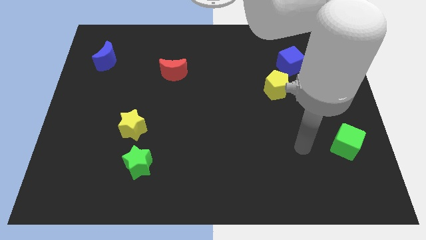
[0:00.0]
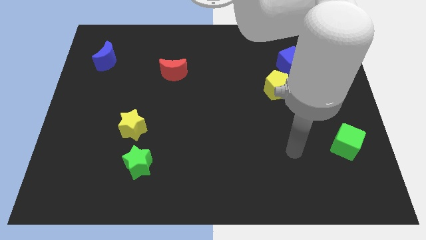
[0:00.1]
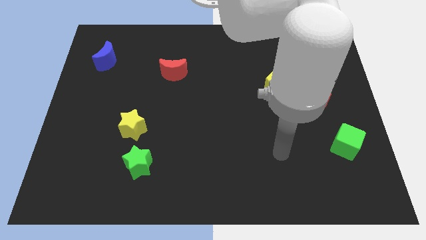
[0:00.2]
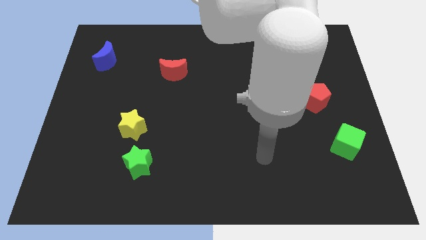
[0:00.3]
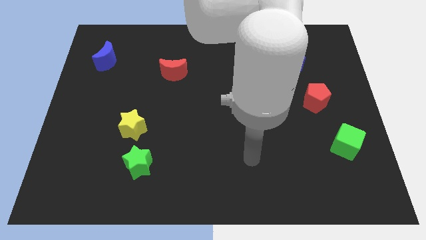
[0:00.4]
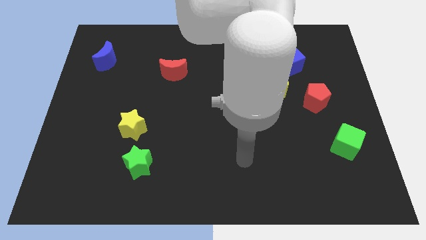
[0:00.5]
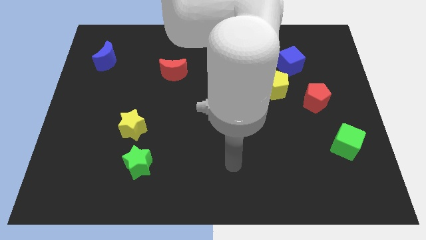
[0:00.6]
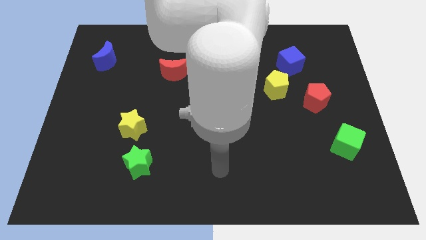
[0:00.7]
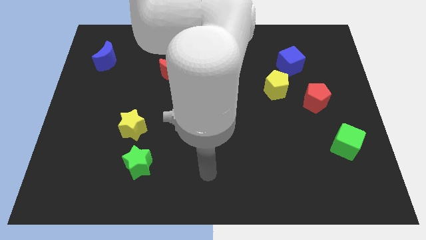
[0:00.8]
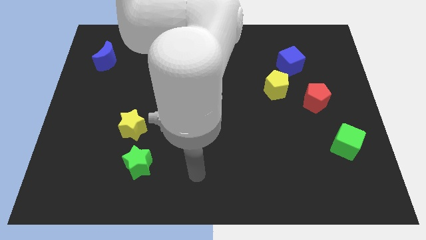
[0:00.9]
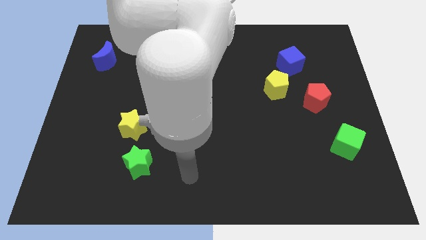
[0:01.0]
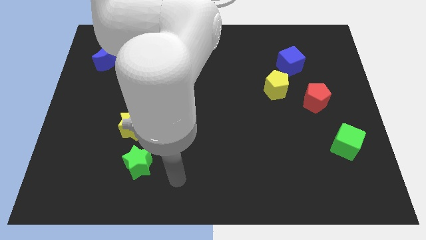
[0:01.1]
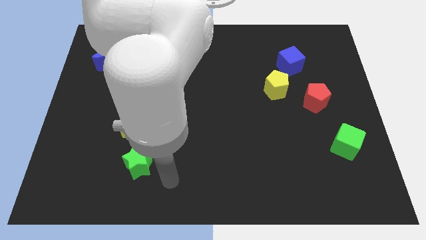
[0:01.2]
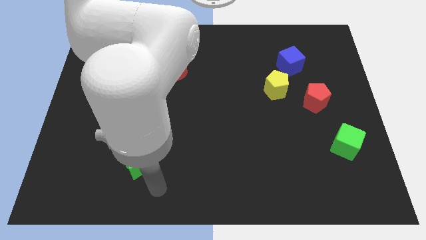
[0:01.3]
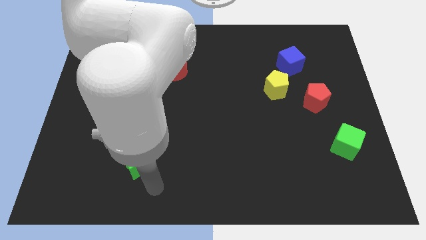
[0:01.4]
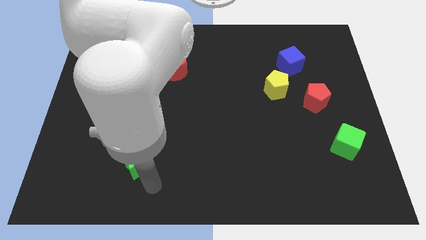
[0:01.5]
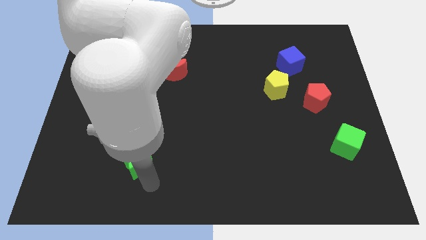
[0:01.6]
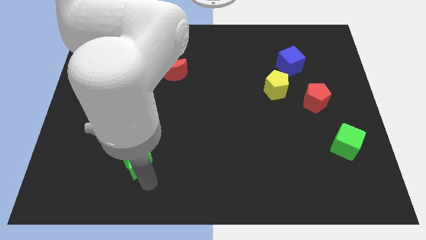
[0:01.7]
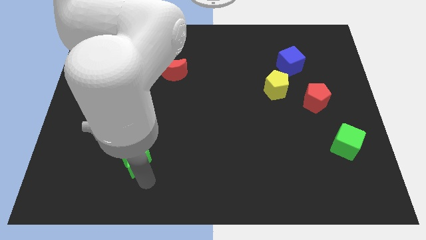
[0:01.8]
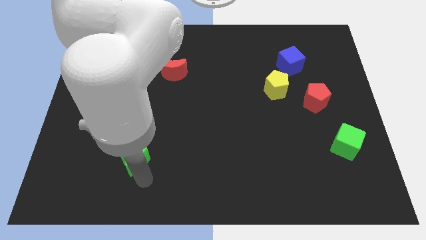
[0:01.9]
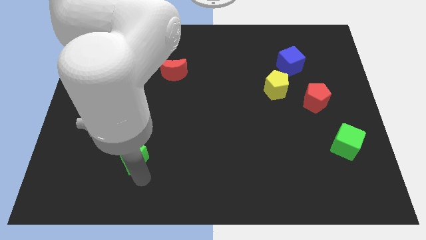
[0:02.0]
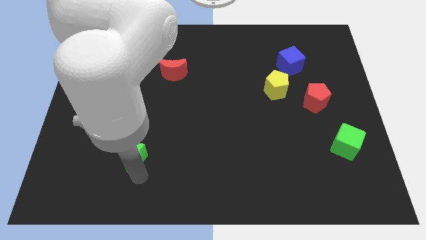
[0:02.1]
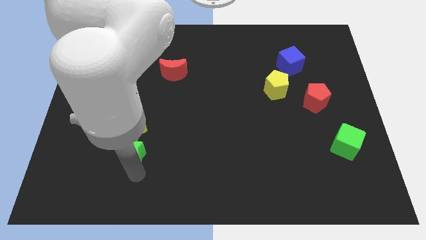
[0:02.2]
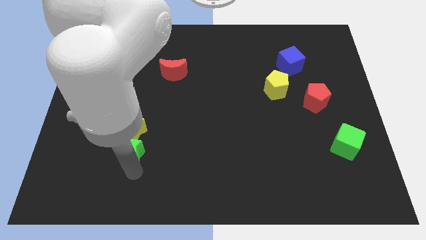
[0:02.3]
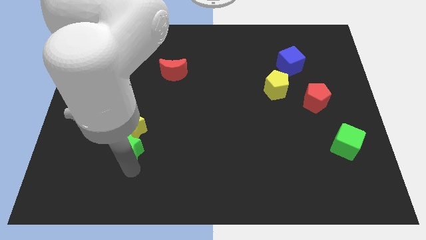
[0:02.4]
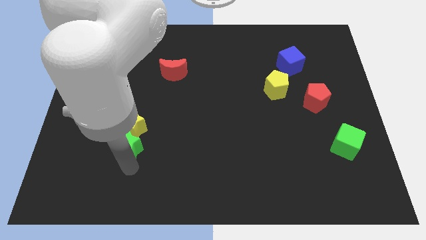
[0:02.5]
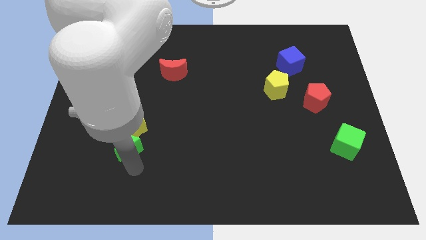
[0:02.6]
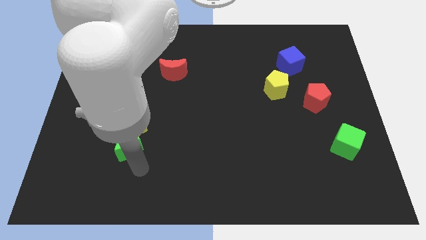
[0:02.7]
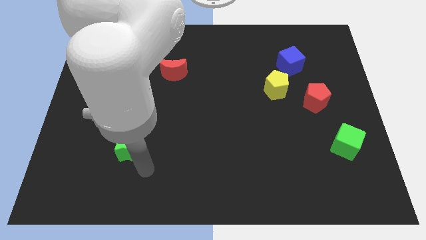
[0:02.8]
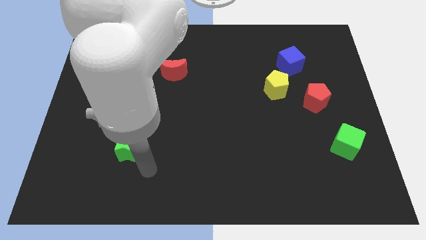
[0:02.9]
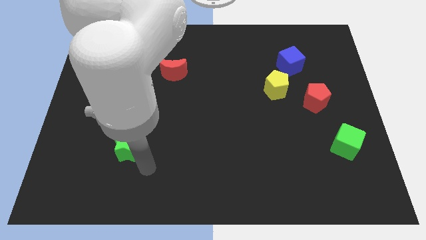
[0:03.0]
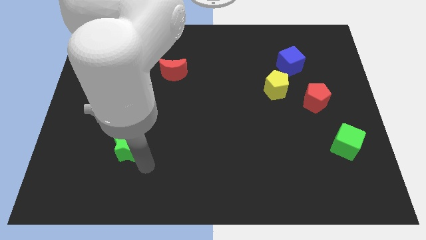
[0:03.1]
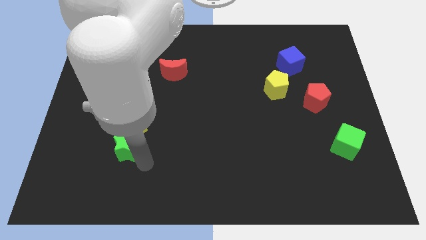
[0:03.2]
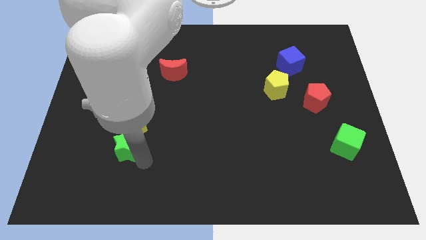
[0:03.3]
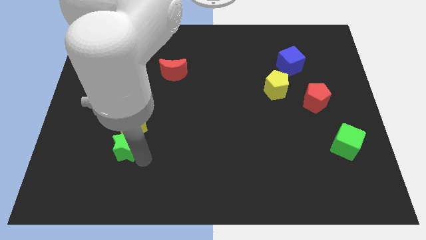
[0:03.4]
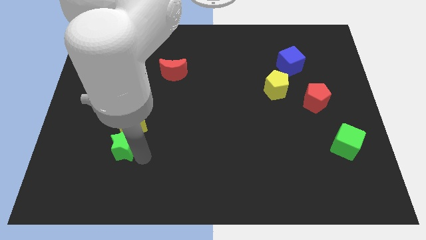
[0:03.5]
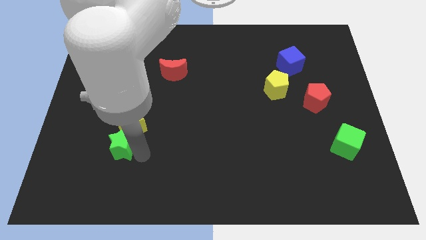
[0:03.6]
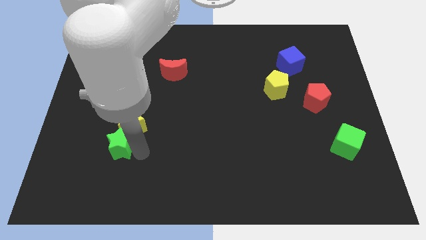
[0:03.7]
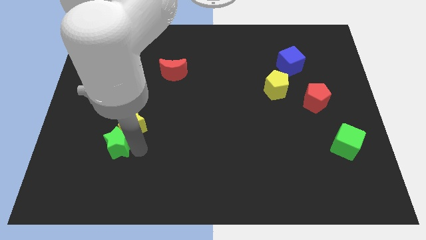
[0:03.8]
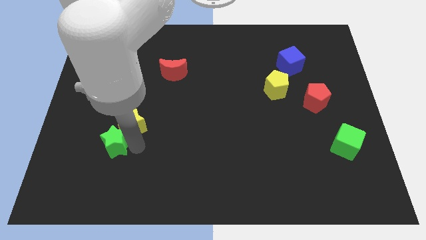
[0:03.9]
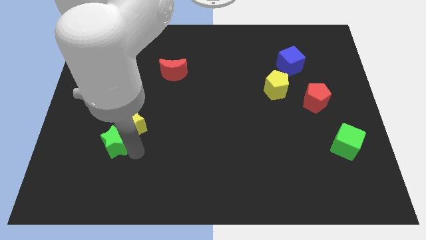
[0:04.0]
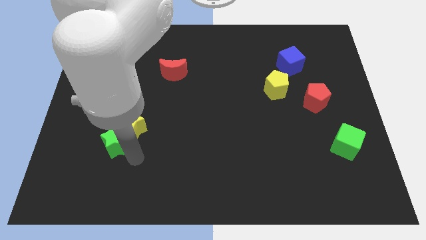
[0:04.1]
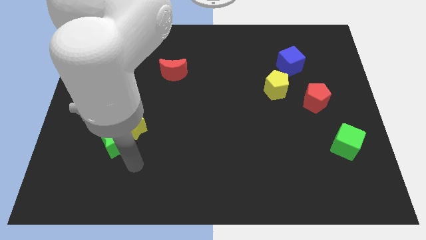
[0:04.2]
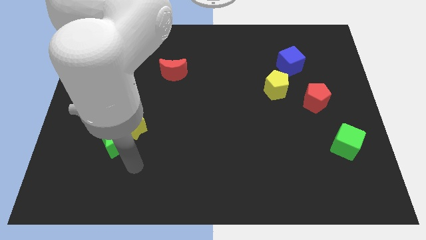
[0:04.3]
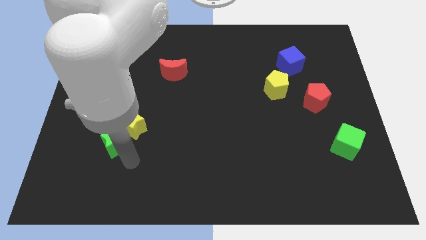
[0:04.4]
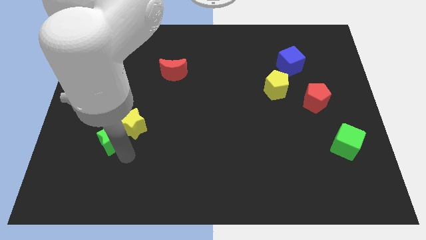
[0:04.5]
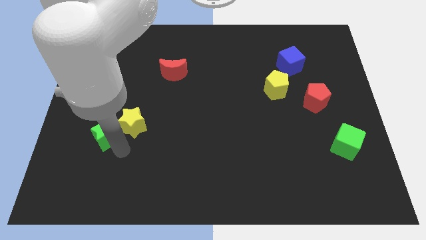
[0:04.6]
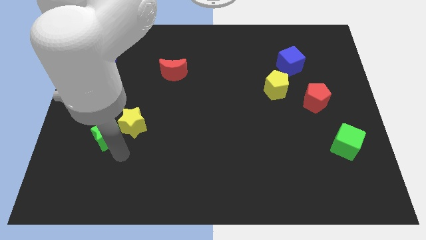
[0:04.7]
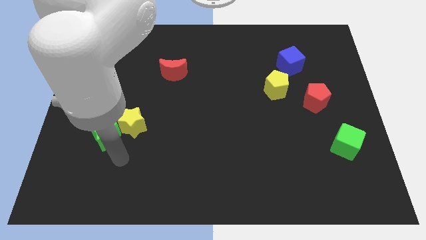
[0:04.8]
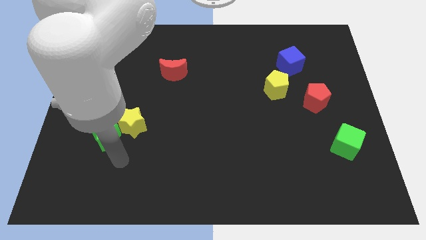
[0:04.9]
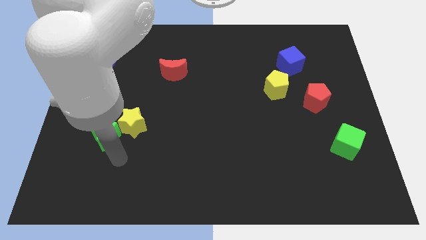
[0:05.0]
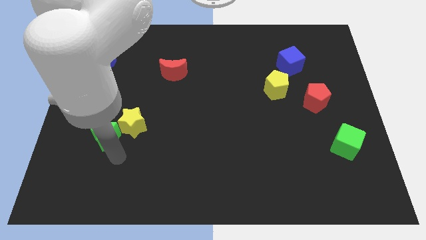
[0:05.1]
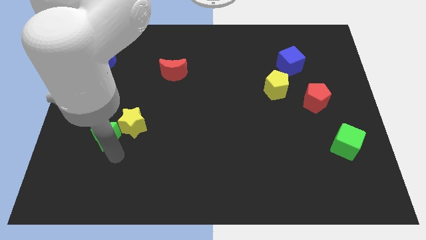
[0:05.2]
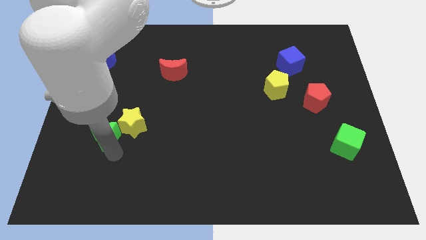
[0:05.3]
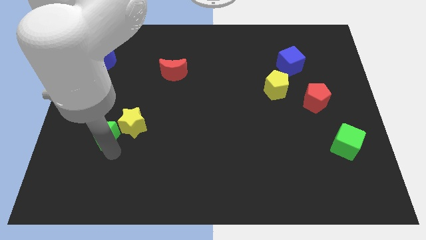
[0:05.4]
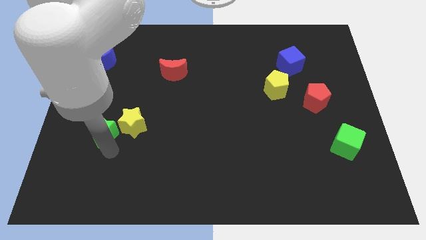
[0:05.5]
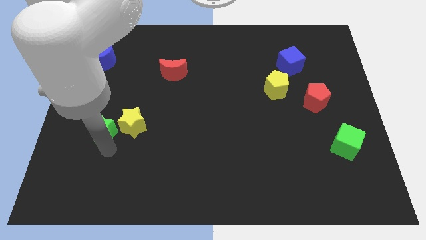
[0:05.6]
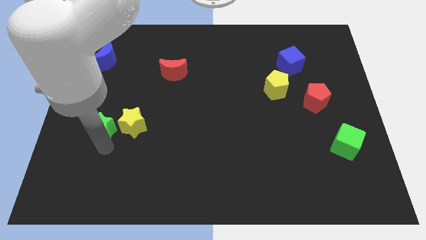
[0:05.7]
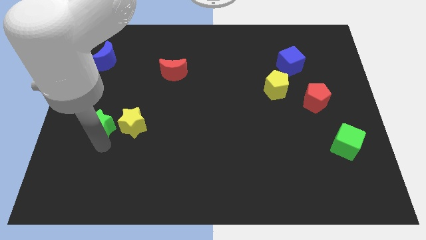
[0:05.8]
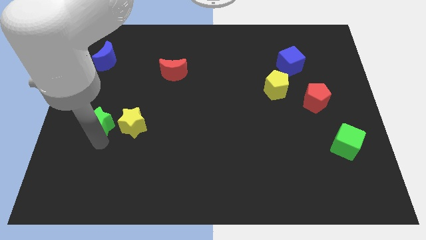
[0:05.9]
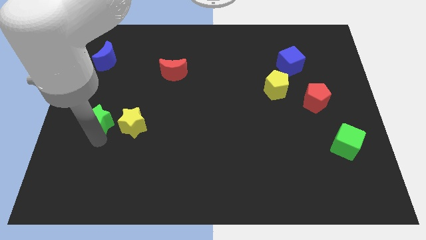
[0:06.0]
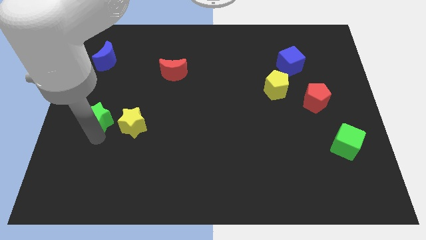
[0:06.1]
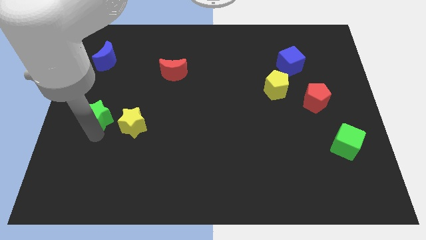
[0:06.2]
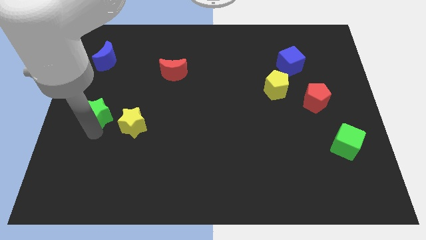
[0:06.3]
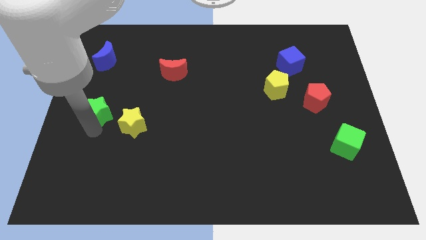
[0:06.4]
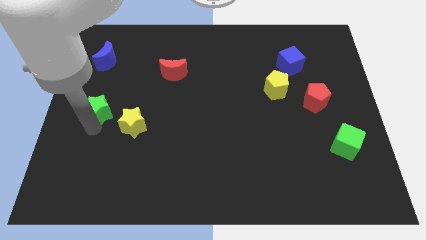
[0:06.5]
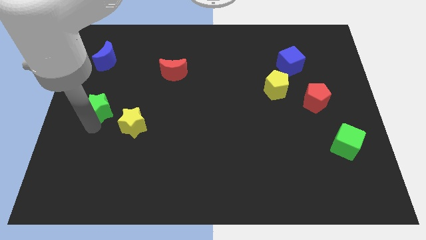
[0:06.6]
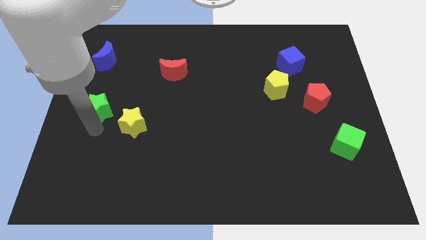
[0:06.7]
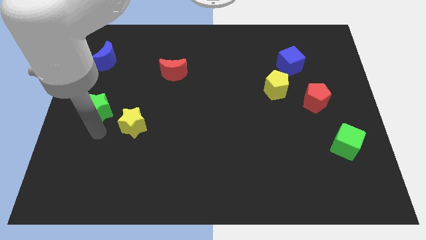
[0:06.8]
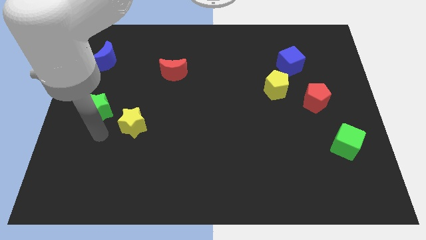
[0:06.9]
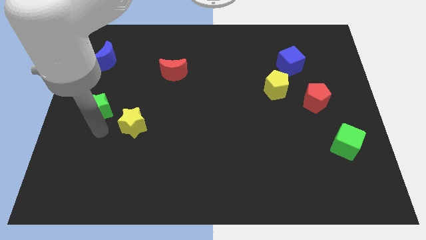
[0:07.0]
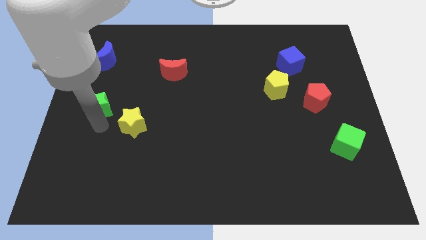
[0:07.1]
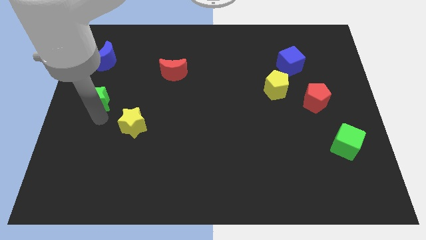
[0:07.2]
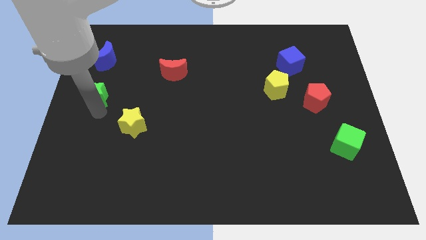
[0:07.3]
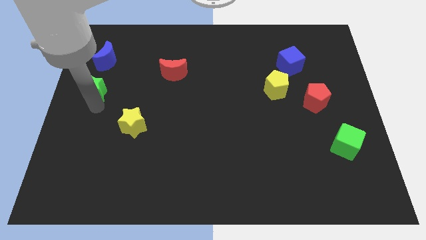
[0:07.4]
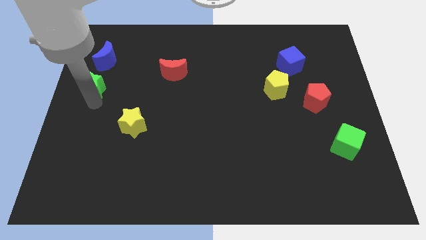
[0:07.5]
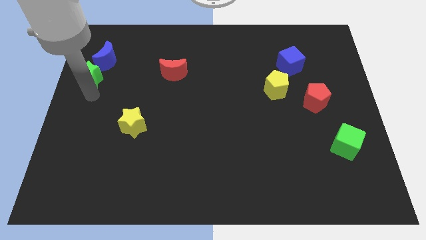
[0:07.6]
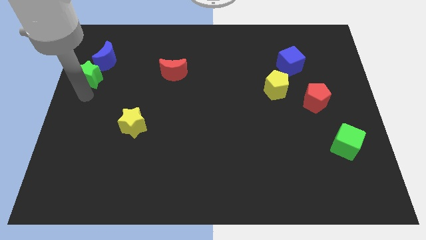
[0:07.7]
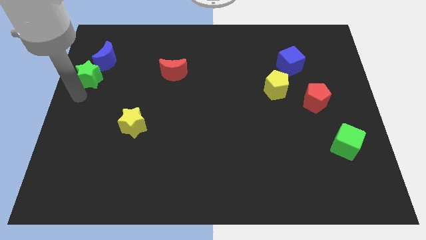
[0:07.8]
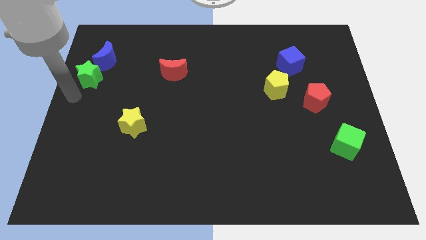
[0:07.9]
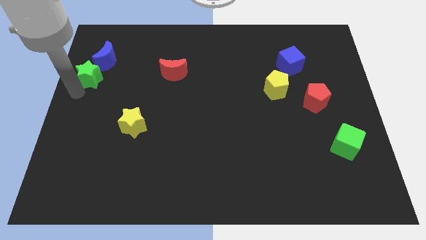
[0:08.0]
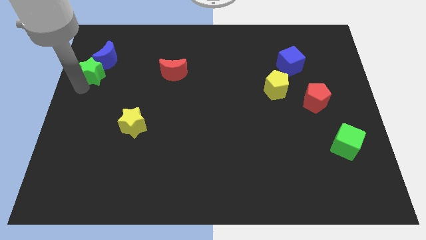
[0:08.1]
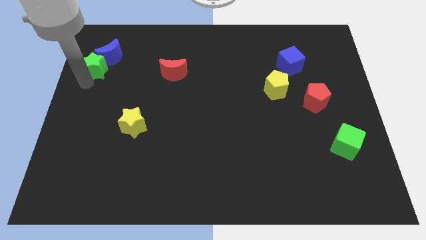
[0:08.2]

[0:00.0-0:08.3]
push the green star next to the blue moon
